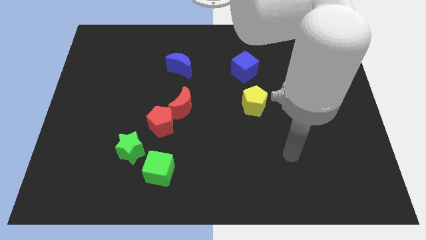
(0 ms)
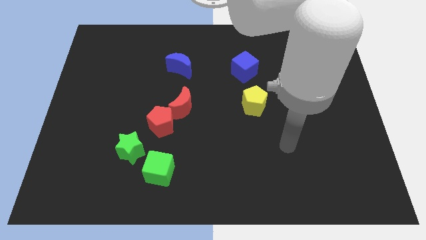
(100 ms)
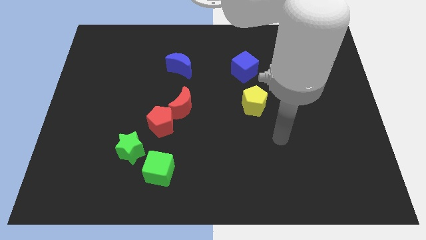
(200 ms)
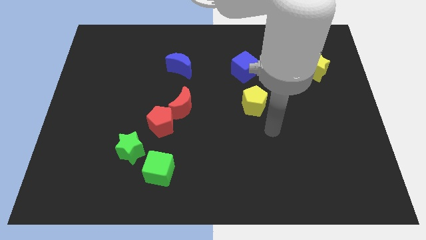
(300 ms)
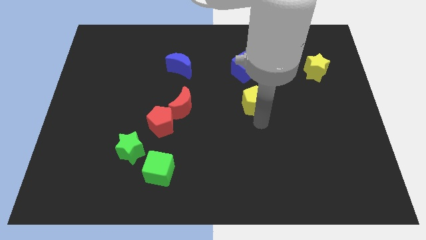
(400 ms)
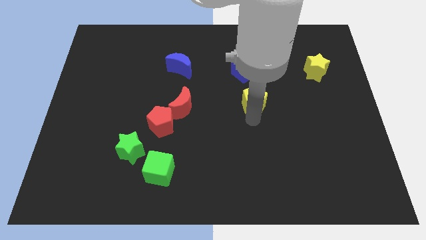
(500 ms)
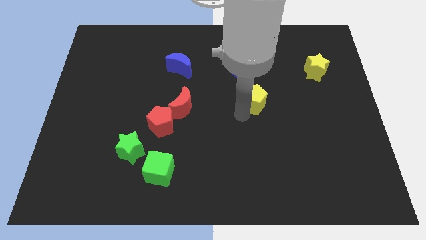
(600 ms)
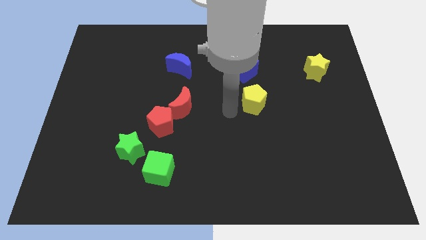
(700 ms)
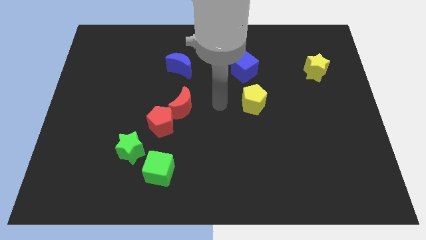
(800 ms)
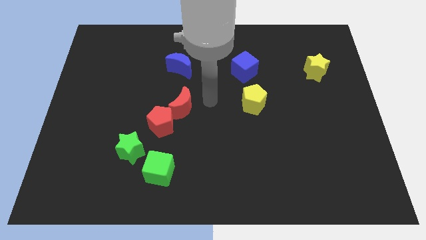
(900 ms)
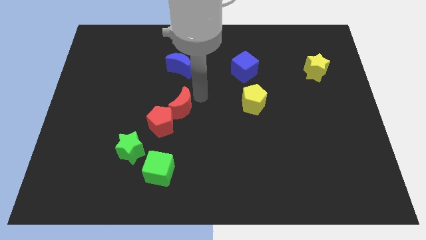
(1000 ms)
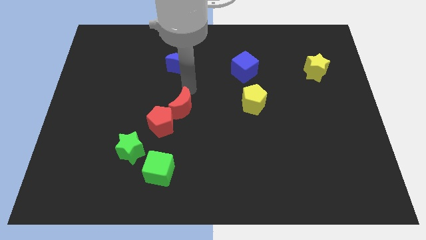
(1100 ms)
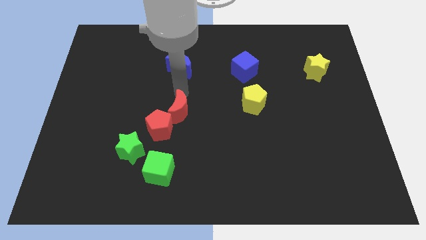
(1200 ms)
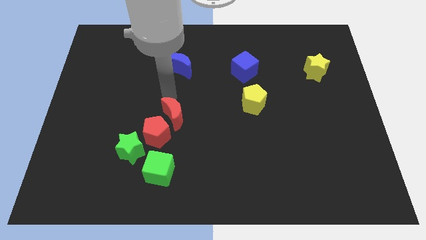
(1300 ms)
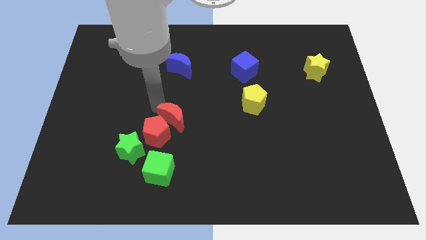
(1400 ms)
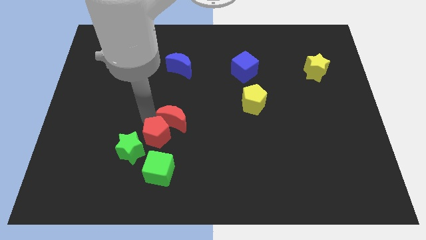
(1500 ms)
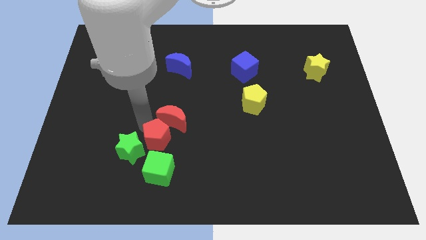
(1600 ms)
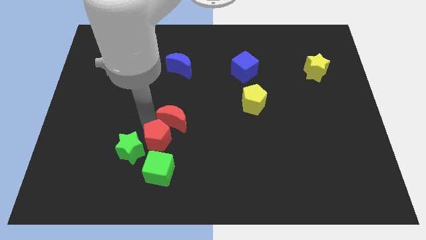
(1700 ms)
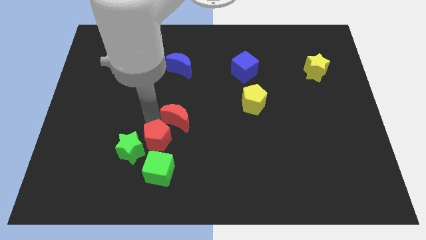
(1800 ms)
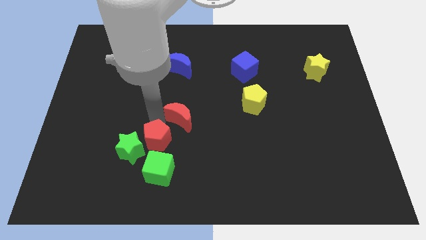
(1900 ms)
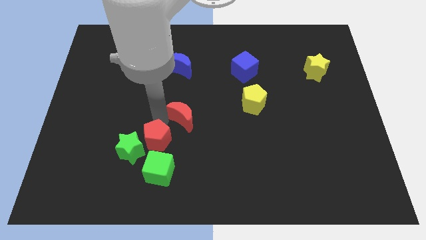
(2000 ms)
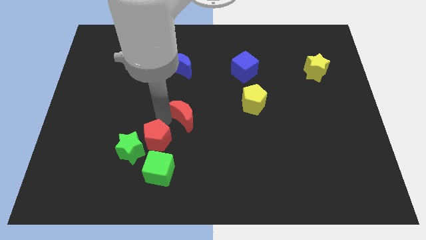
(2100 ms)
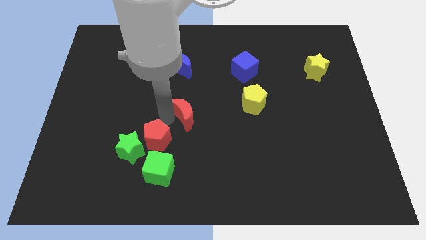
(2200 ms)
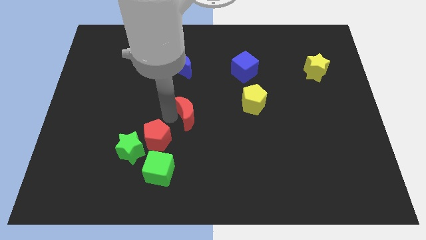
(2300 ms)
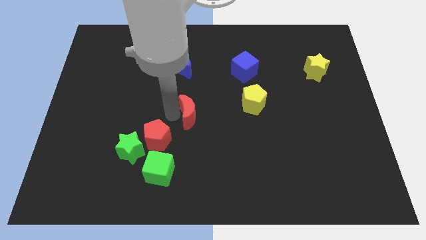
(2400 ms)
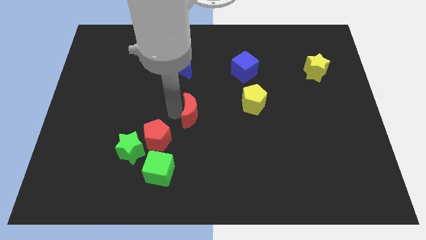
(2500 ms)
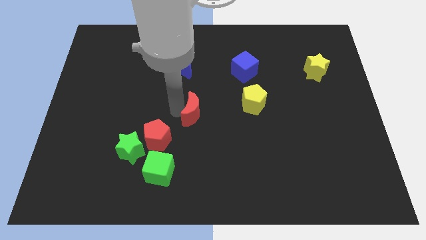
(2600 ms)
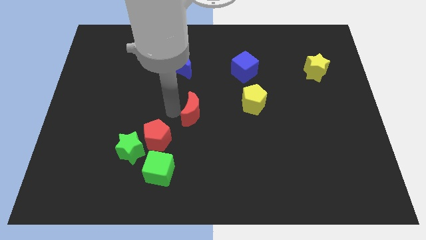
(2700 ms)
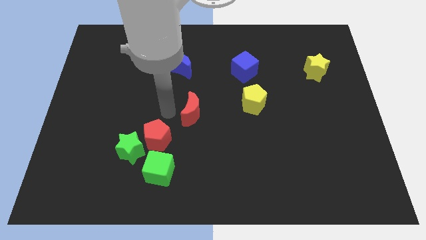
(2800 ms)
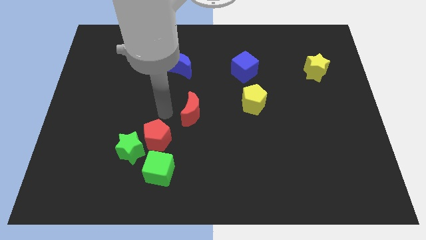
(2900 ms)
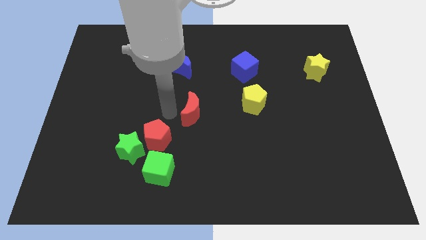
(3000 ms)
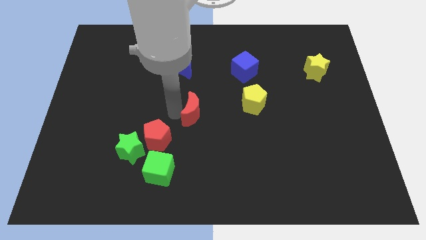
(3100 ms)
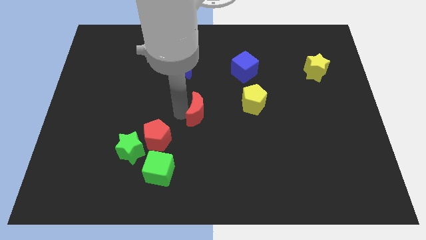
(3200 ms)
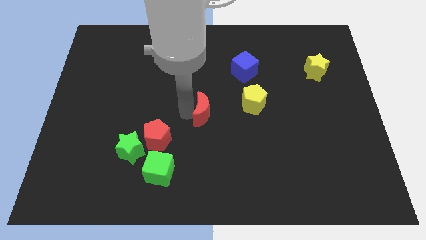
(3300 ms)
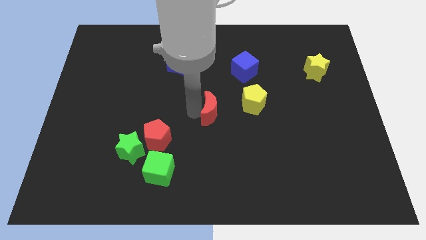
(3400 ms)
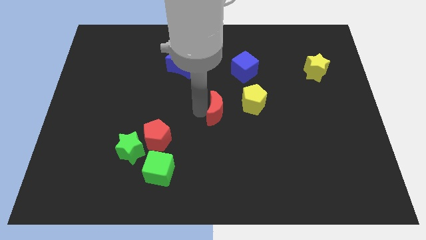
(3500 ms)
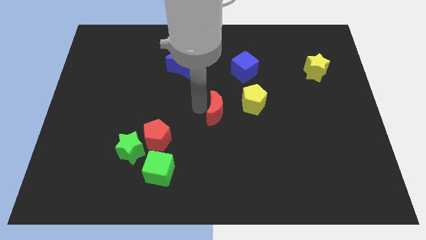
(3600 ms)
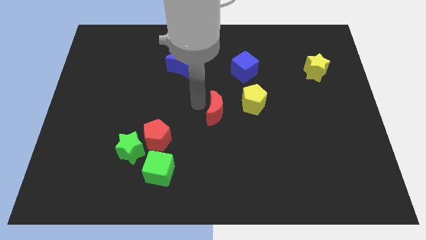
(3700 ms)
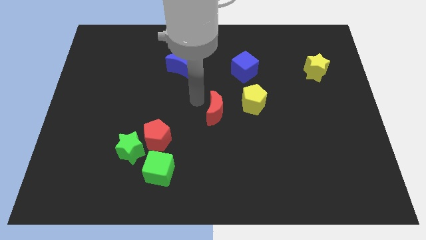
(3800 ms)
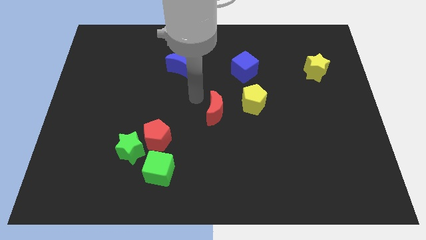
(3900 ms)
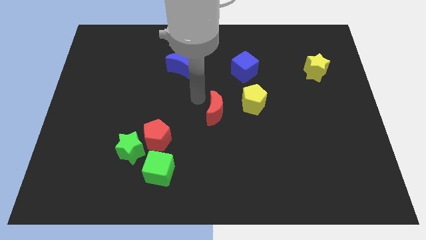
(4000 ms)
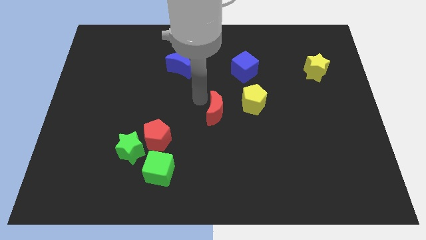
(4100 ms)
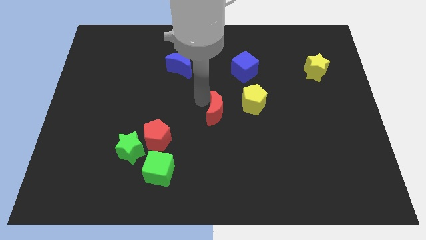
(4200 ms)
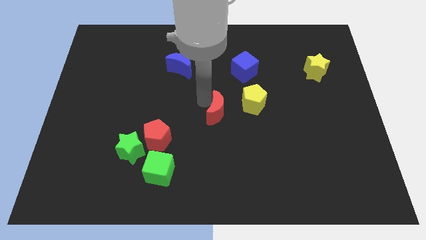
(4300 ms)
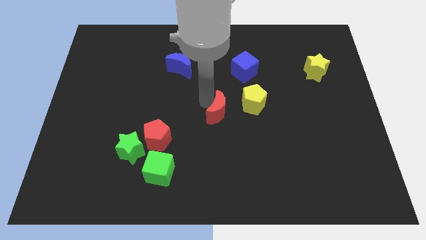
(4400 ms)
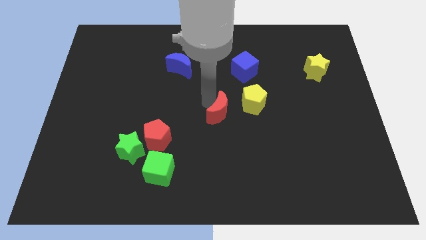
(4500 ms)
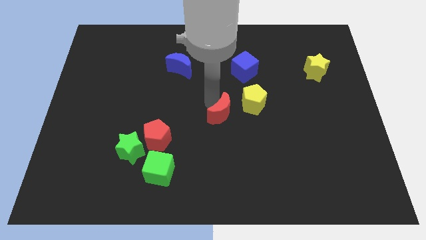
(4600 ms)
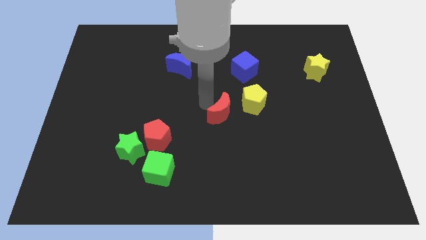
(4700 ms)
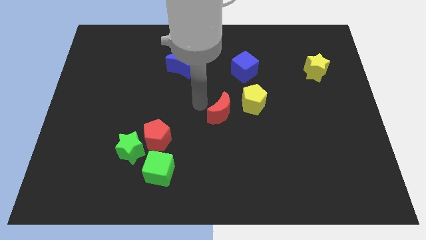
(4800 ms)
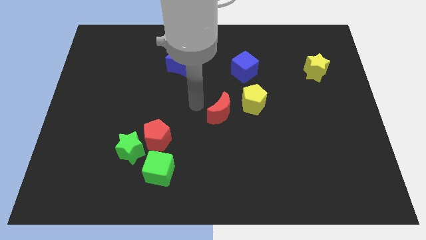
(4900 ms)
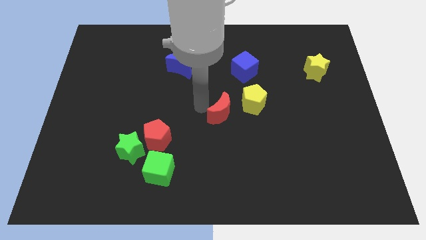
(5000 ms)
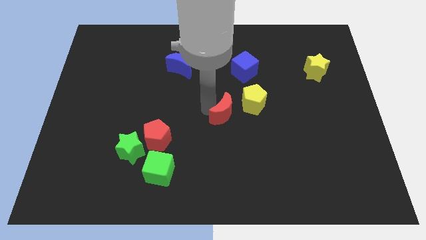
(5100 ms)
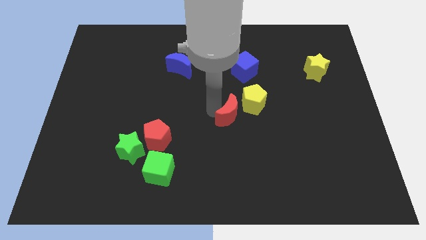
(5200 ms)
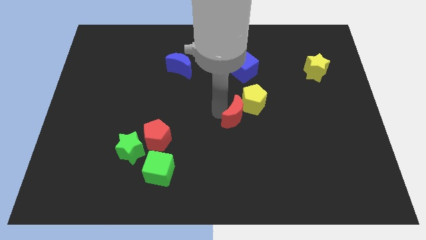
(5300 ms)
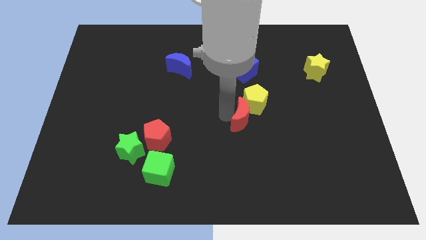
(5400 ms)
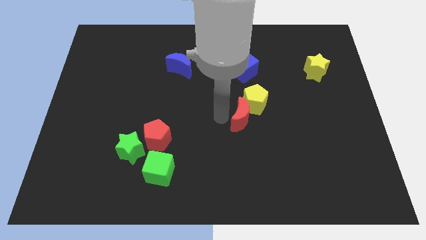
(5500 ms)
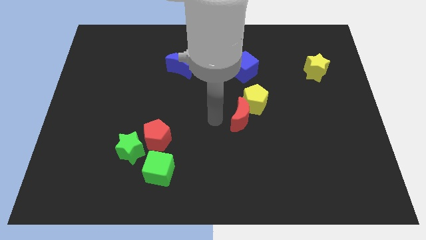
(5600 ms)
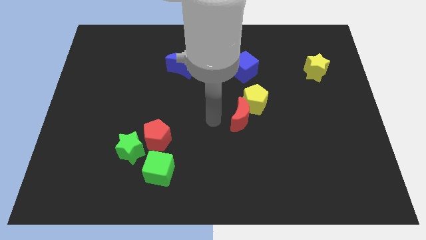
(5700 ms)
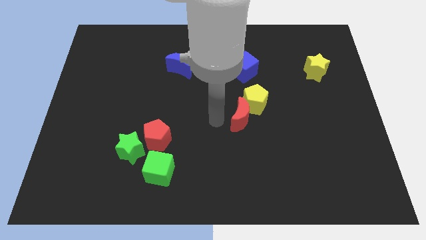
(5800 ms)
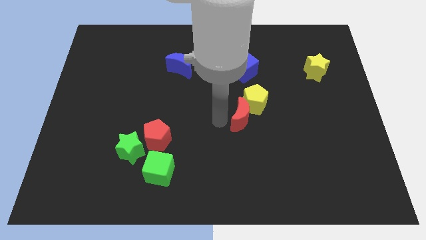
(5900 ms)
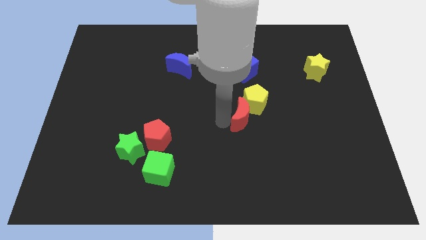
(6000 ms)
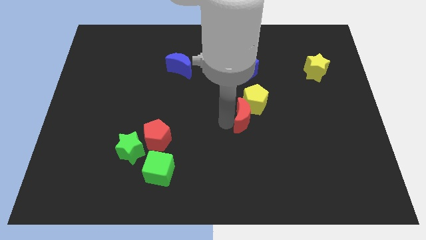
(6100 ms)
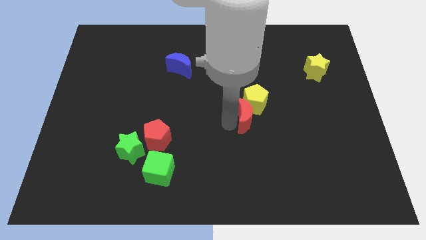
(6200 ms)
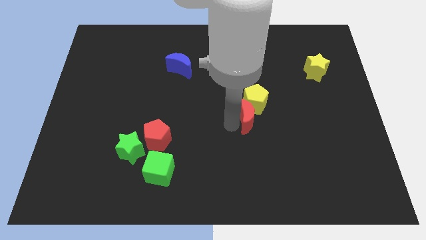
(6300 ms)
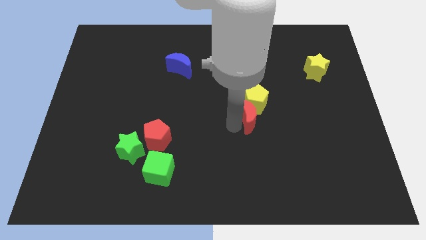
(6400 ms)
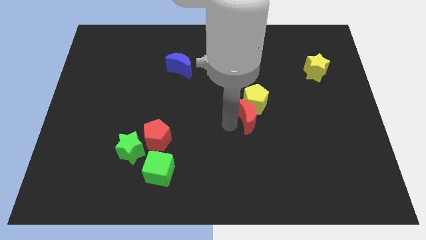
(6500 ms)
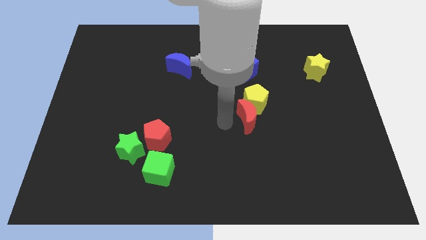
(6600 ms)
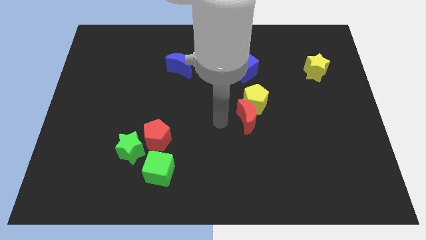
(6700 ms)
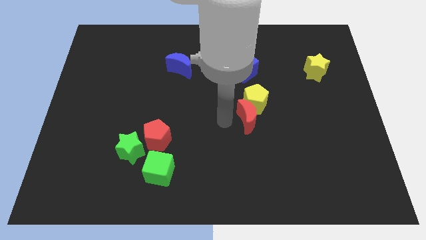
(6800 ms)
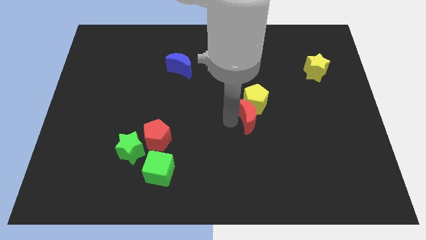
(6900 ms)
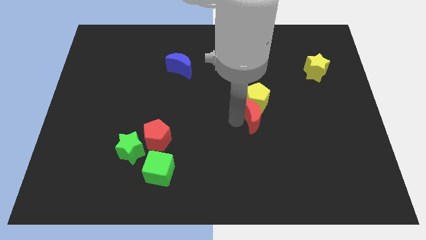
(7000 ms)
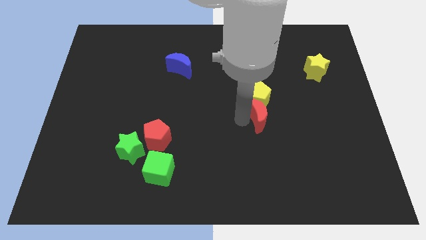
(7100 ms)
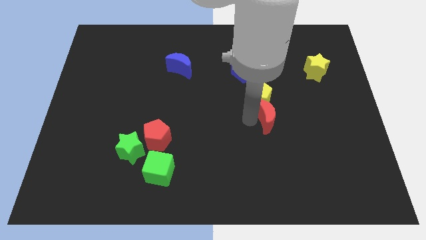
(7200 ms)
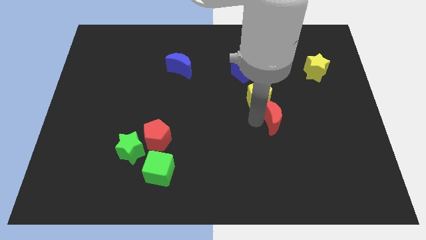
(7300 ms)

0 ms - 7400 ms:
move the red moon to the right

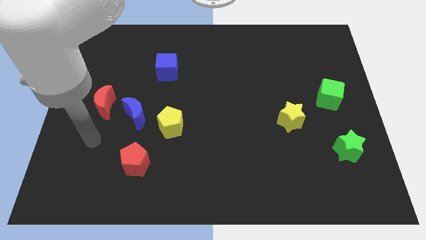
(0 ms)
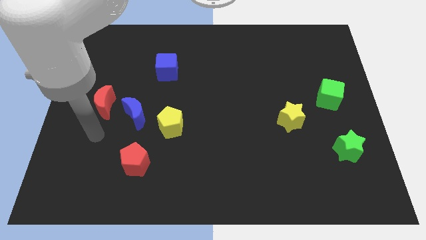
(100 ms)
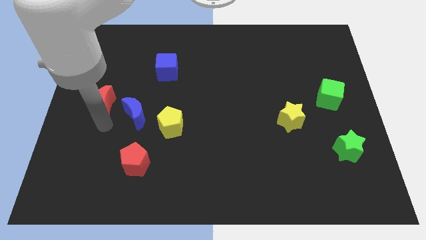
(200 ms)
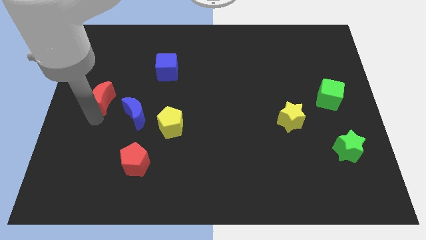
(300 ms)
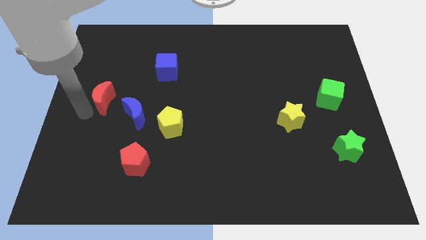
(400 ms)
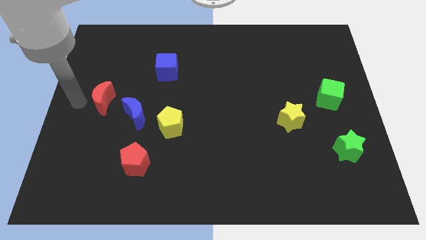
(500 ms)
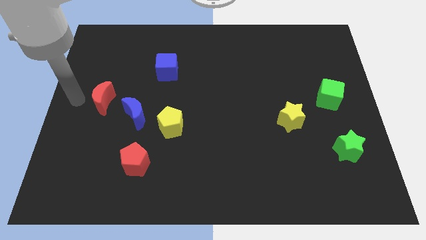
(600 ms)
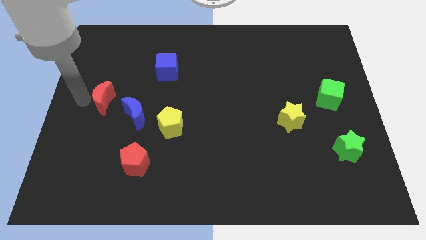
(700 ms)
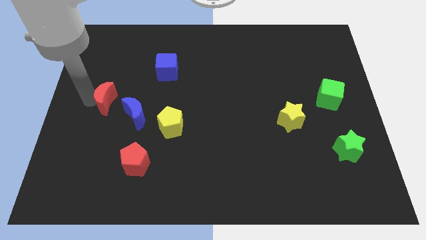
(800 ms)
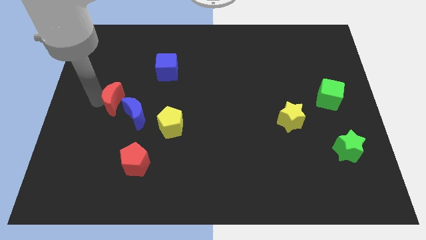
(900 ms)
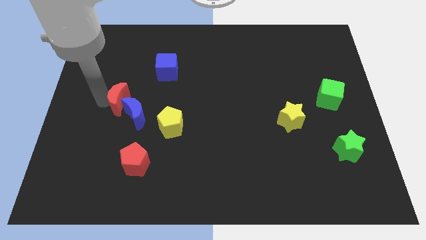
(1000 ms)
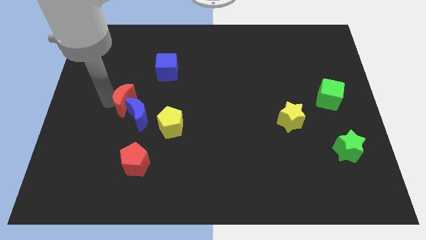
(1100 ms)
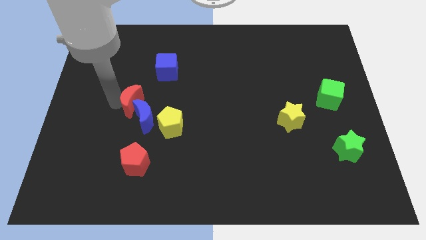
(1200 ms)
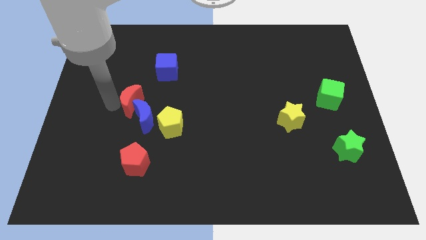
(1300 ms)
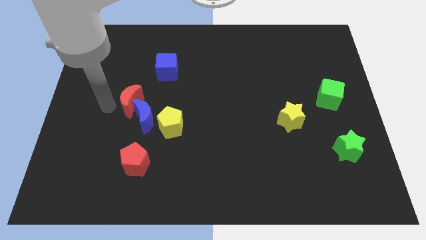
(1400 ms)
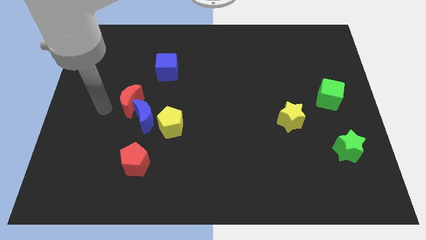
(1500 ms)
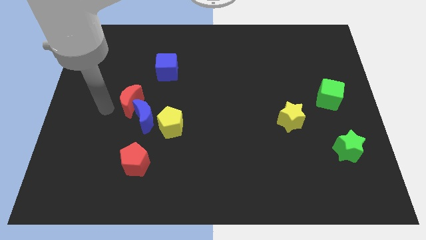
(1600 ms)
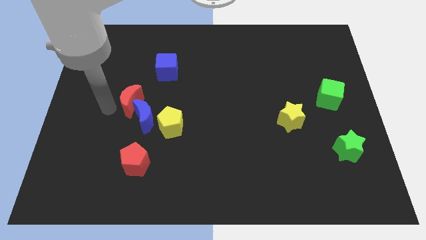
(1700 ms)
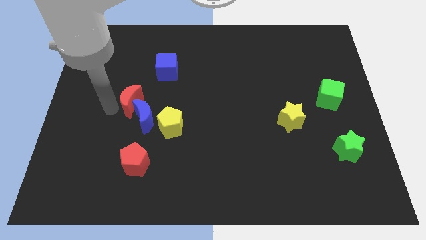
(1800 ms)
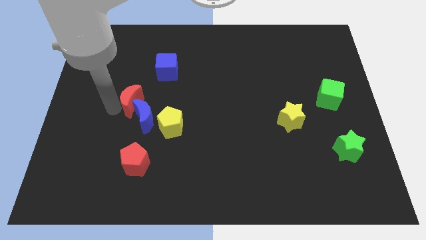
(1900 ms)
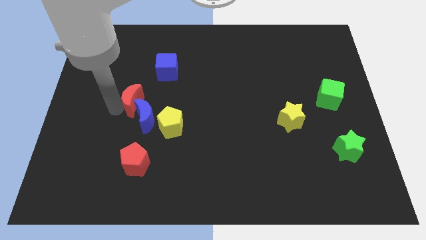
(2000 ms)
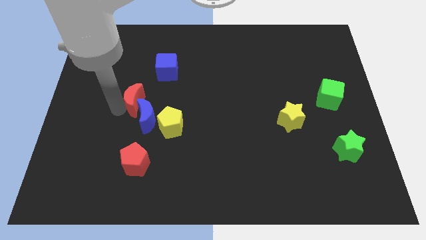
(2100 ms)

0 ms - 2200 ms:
slightly slide the red moon right
